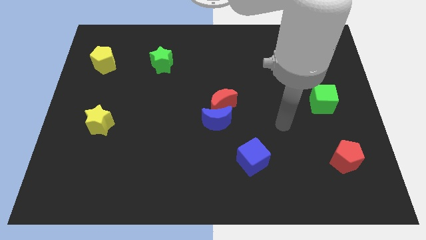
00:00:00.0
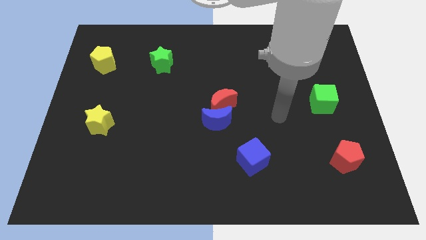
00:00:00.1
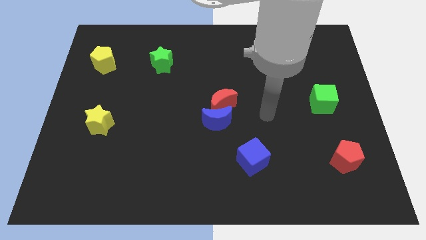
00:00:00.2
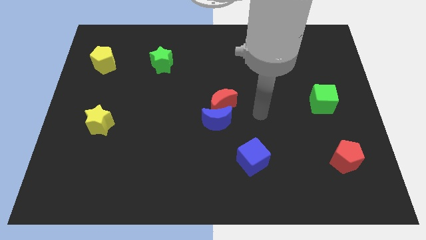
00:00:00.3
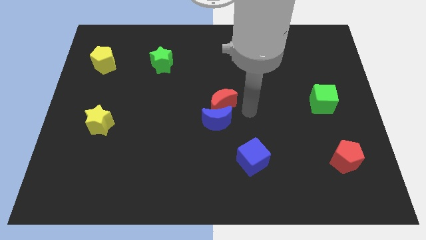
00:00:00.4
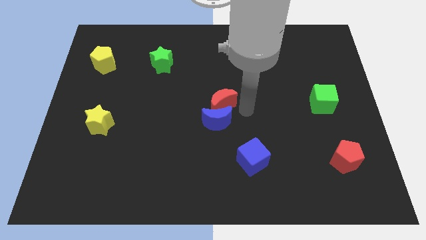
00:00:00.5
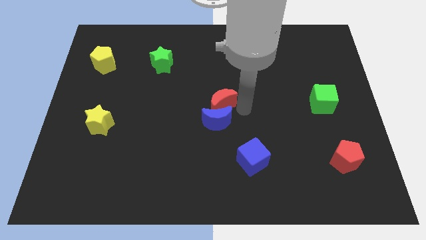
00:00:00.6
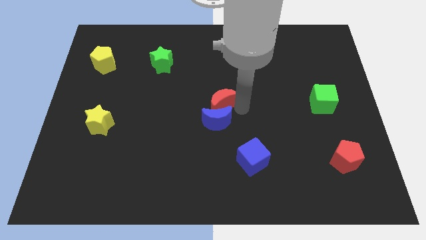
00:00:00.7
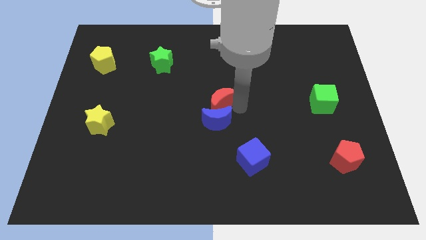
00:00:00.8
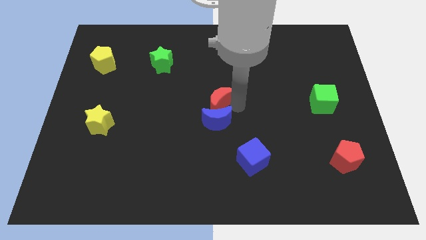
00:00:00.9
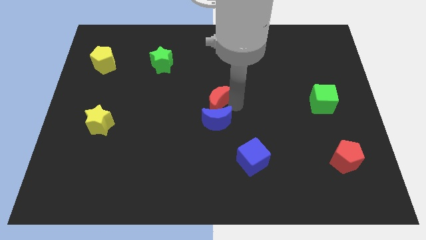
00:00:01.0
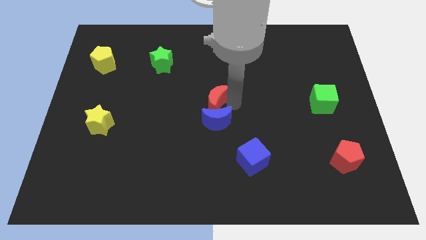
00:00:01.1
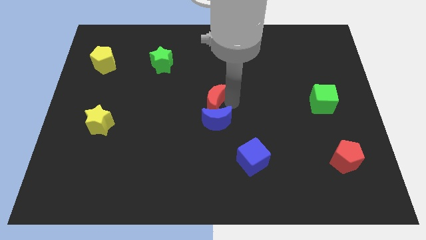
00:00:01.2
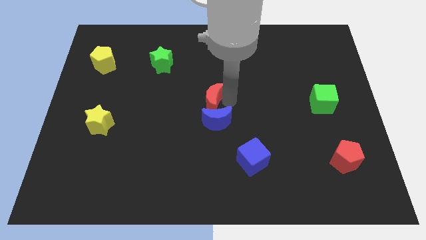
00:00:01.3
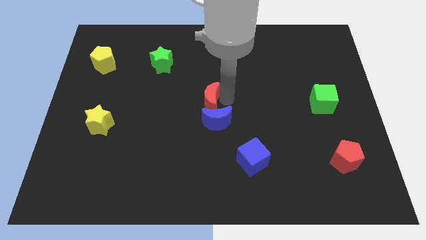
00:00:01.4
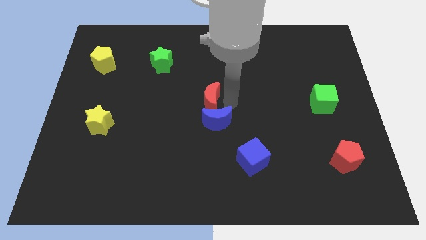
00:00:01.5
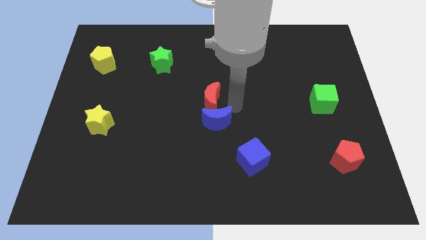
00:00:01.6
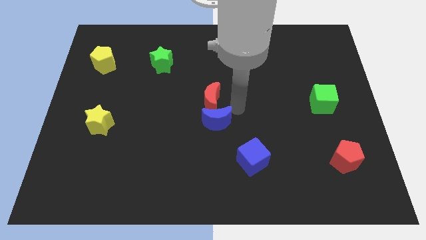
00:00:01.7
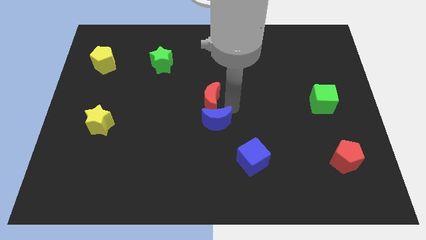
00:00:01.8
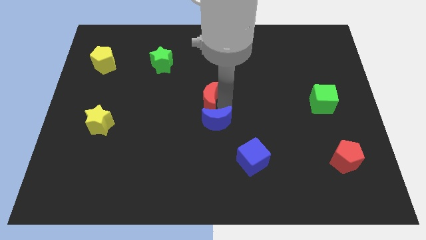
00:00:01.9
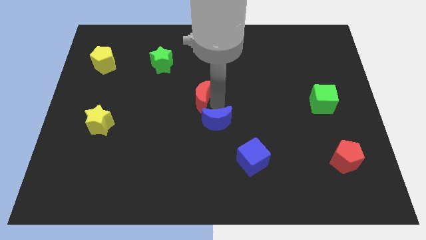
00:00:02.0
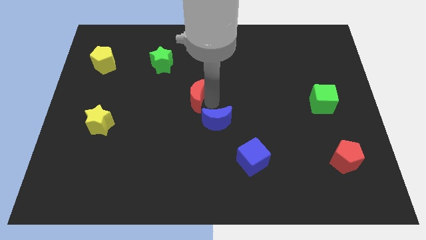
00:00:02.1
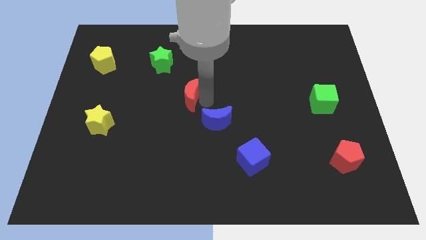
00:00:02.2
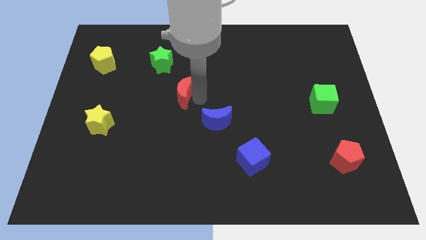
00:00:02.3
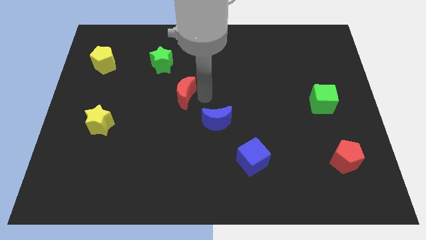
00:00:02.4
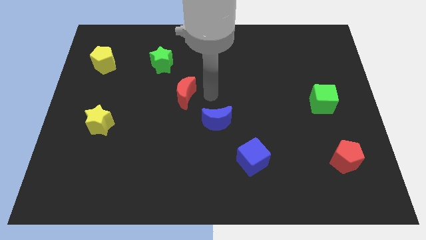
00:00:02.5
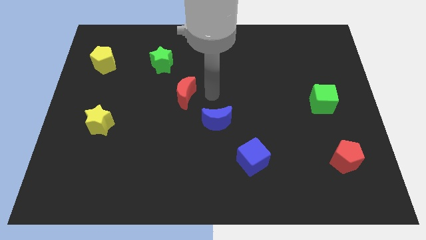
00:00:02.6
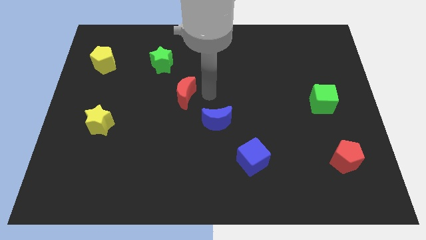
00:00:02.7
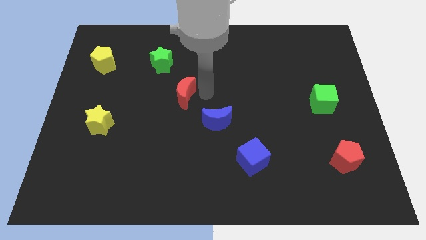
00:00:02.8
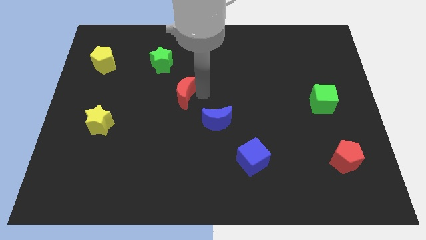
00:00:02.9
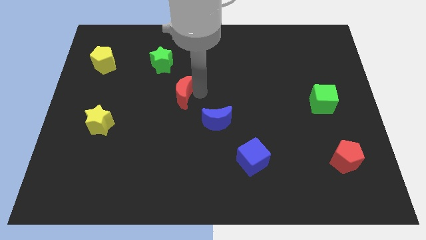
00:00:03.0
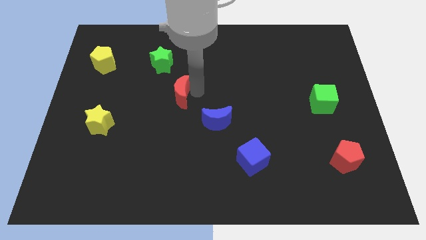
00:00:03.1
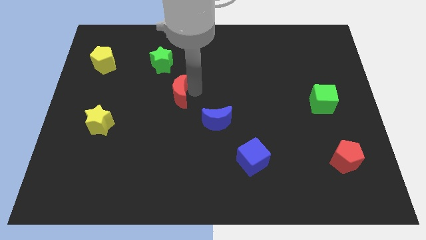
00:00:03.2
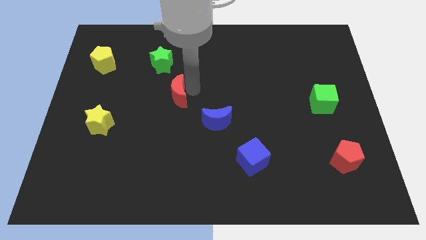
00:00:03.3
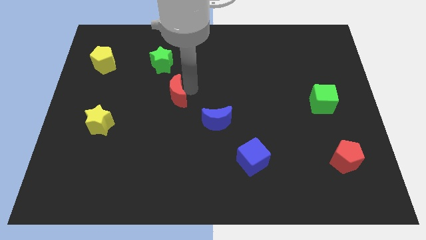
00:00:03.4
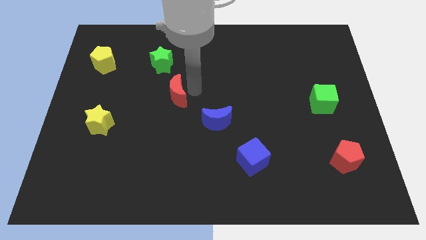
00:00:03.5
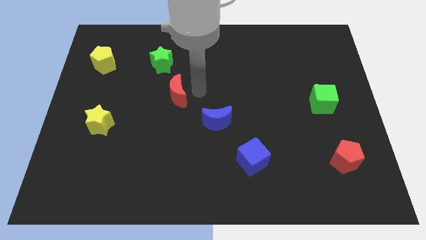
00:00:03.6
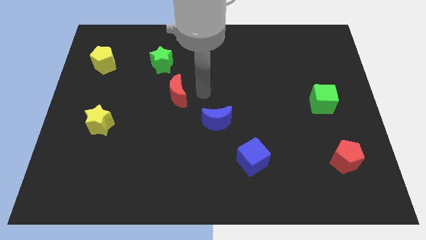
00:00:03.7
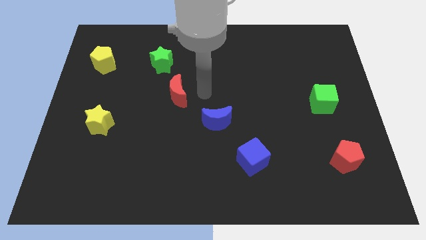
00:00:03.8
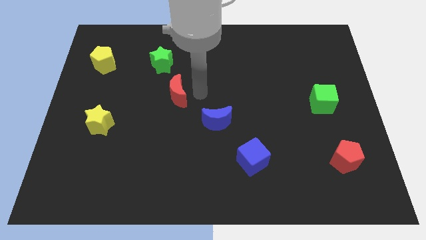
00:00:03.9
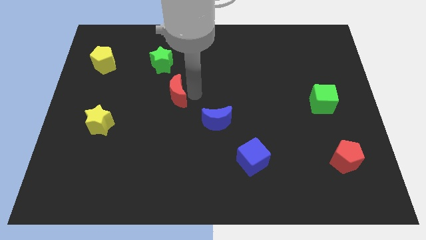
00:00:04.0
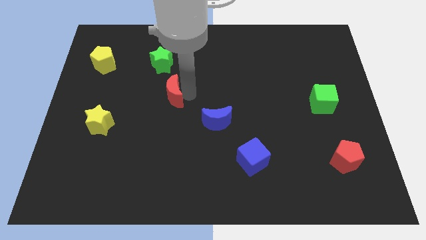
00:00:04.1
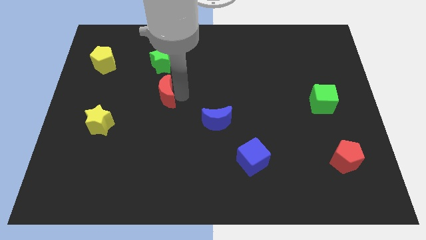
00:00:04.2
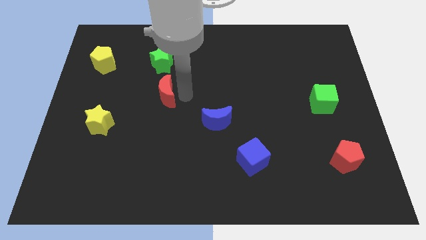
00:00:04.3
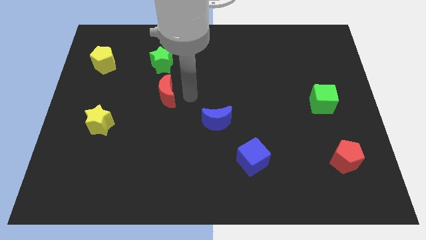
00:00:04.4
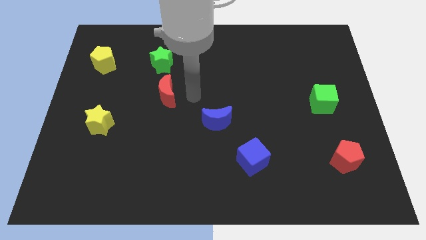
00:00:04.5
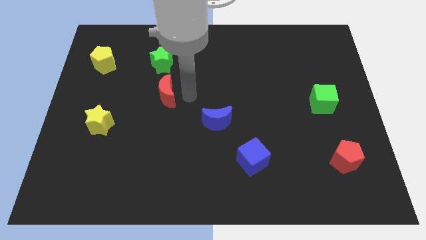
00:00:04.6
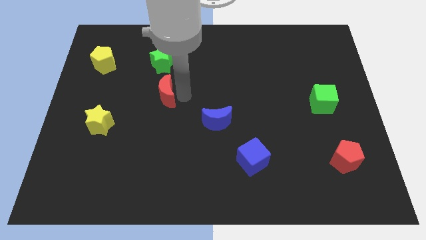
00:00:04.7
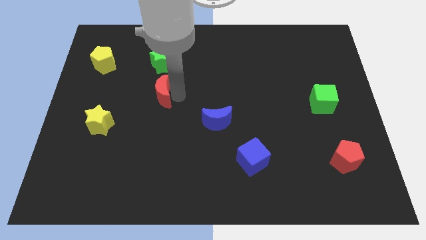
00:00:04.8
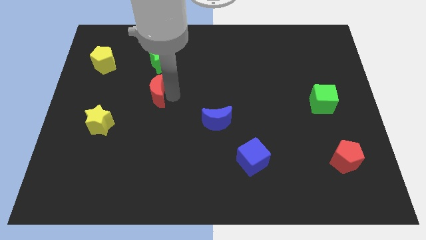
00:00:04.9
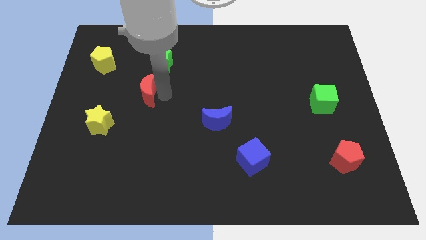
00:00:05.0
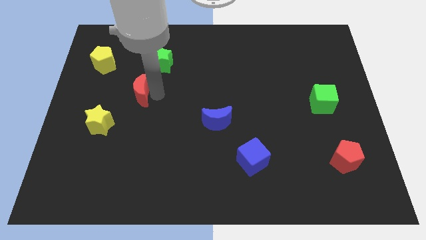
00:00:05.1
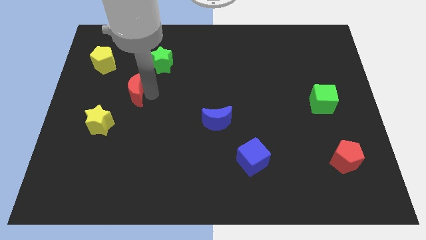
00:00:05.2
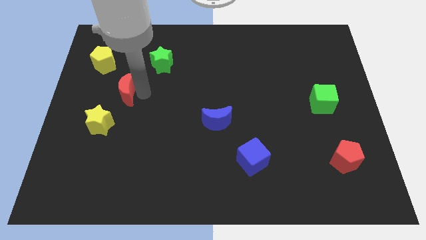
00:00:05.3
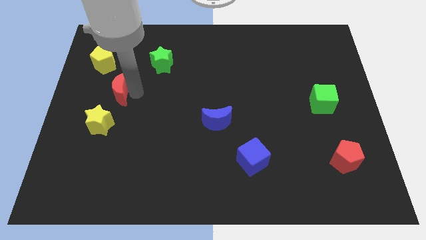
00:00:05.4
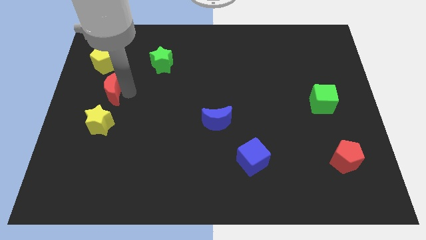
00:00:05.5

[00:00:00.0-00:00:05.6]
push the red moon below the yellow pentagon

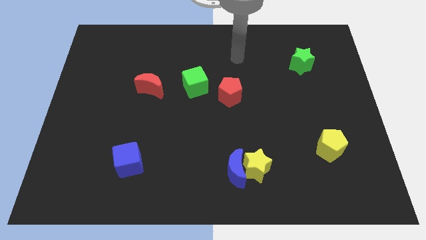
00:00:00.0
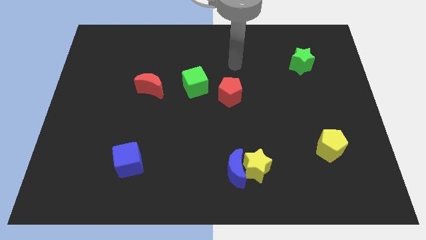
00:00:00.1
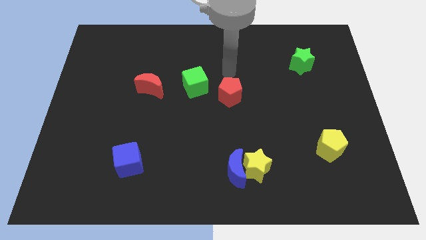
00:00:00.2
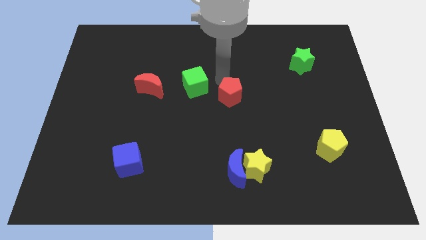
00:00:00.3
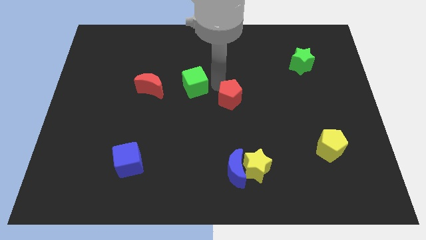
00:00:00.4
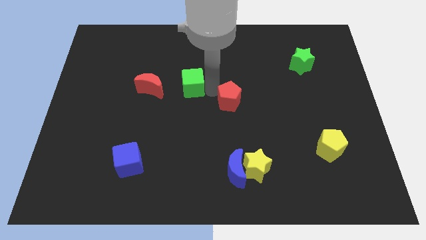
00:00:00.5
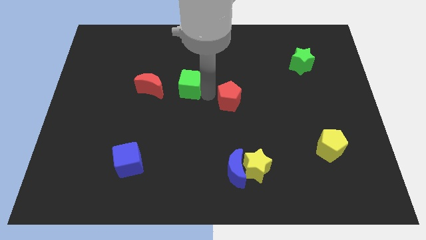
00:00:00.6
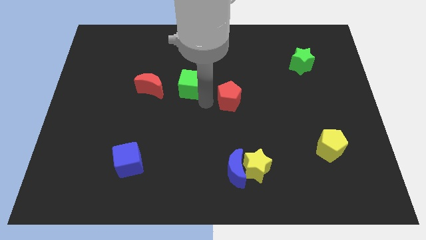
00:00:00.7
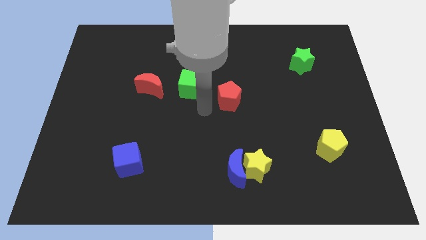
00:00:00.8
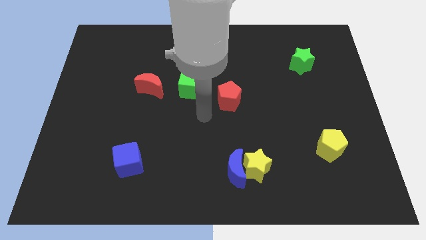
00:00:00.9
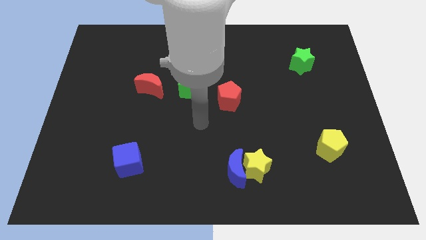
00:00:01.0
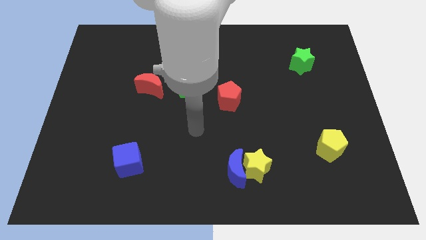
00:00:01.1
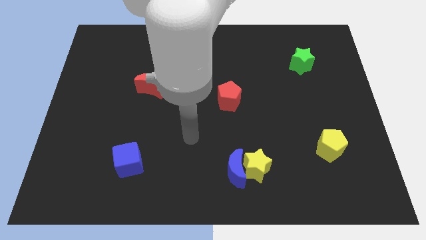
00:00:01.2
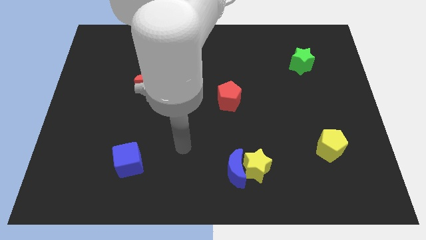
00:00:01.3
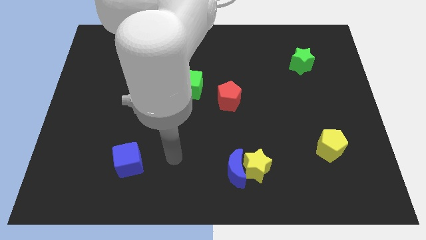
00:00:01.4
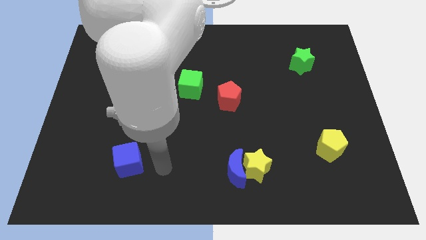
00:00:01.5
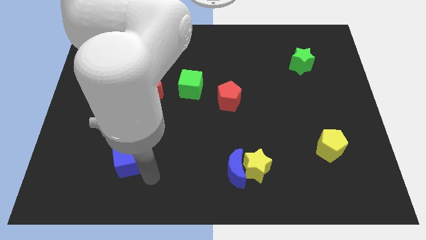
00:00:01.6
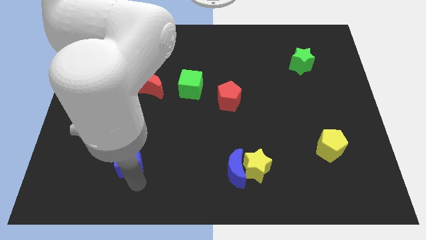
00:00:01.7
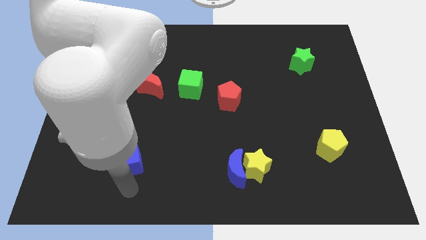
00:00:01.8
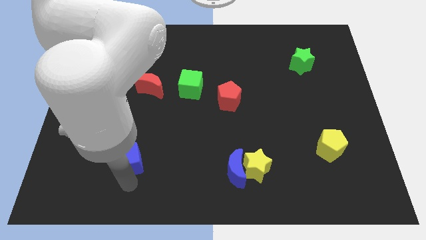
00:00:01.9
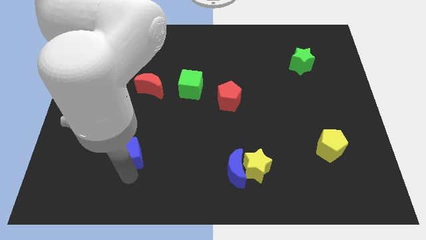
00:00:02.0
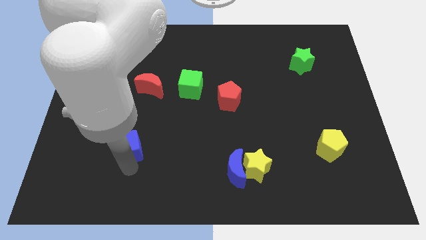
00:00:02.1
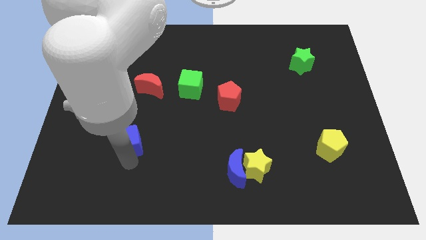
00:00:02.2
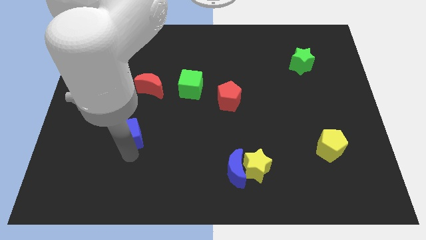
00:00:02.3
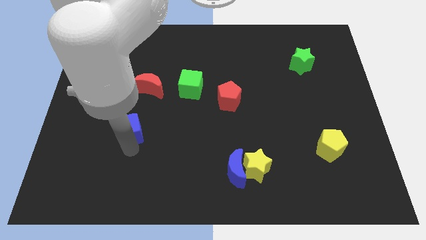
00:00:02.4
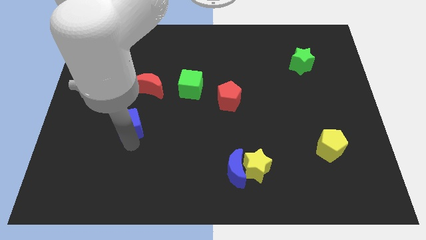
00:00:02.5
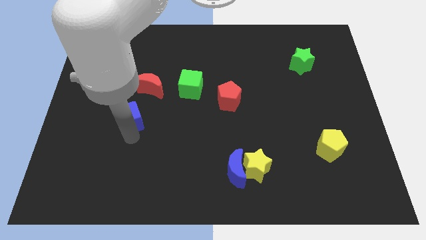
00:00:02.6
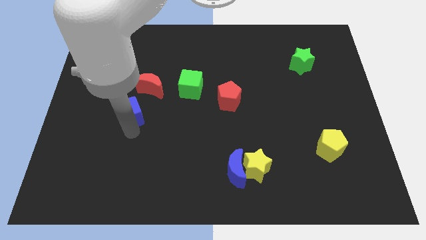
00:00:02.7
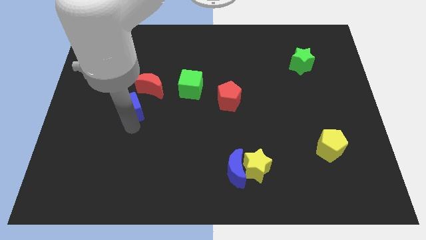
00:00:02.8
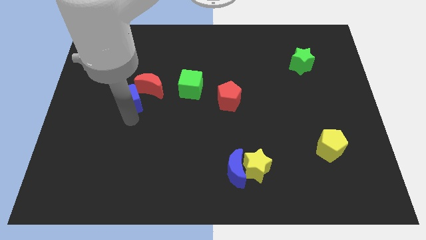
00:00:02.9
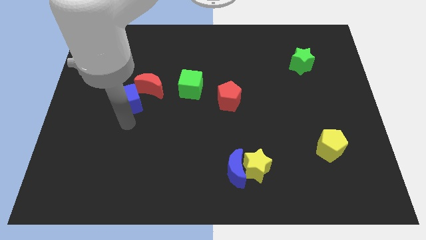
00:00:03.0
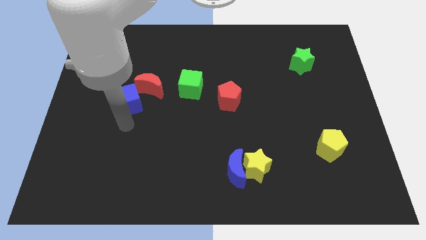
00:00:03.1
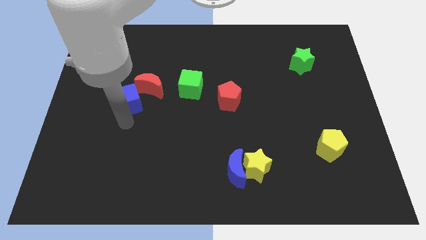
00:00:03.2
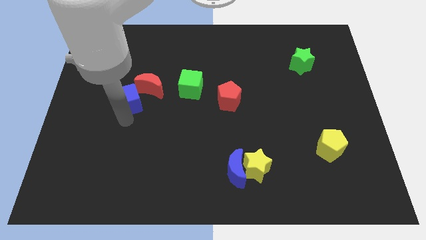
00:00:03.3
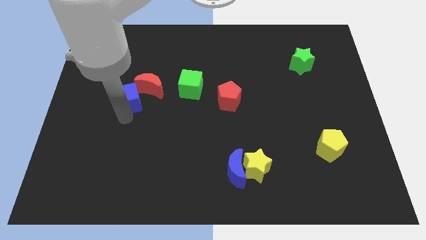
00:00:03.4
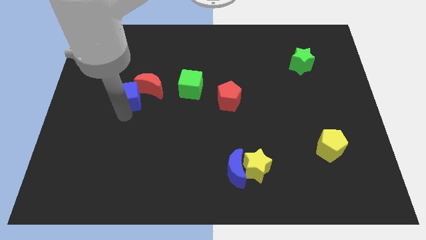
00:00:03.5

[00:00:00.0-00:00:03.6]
slide the blue cube just left of the green cube
